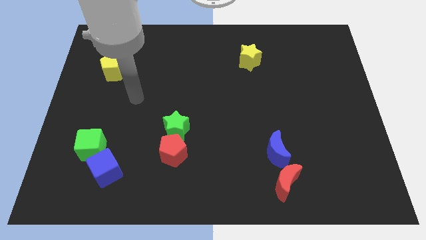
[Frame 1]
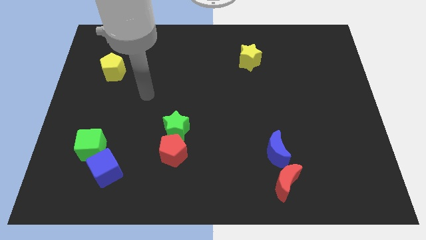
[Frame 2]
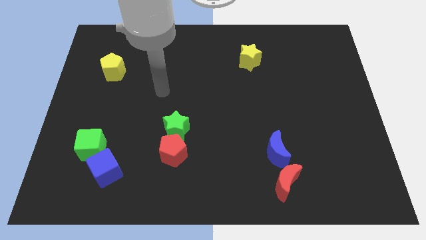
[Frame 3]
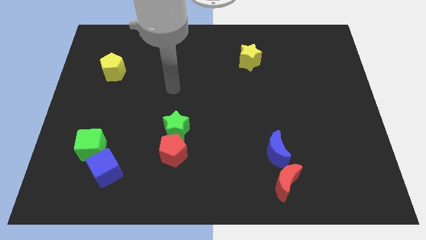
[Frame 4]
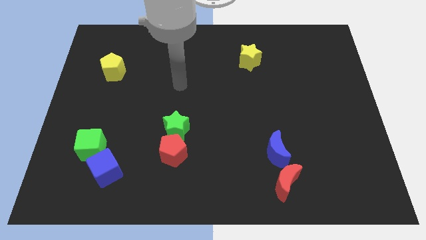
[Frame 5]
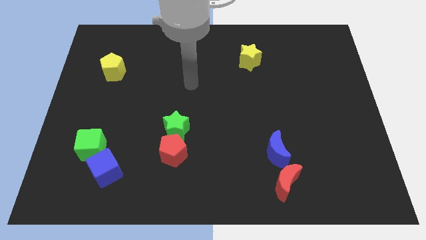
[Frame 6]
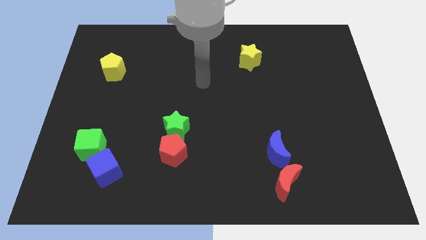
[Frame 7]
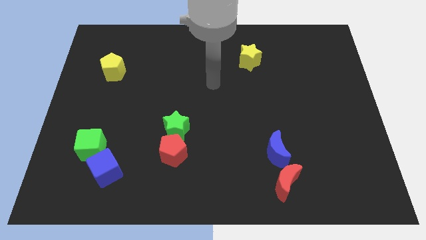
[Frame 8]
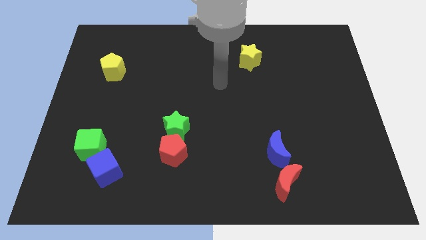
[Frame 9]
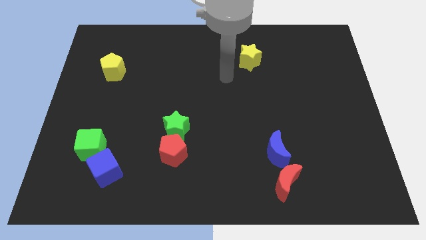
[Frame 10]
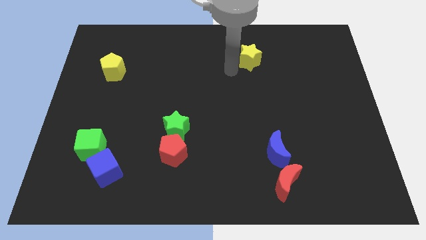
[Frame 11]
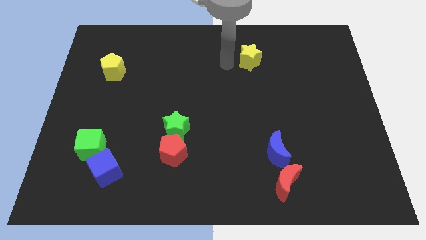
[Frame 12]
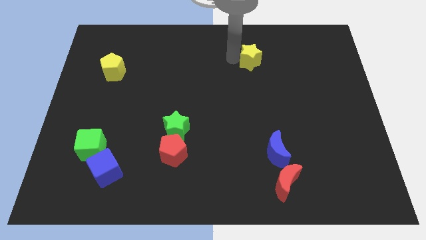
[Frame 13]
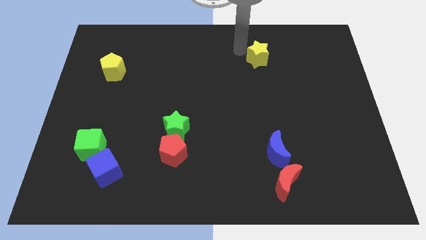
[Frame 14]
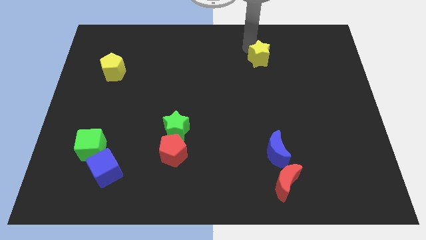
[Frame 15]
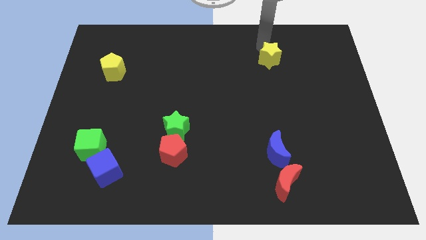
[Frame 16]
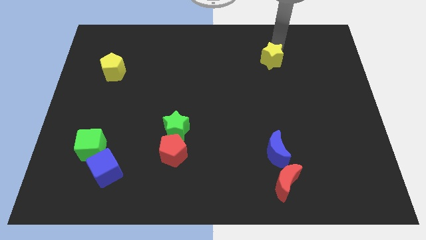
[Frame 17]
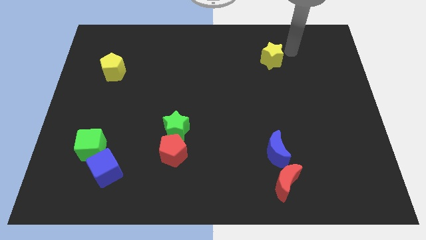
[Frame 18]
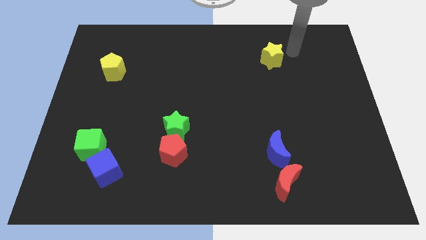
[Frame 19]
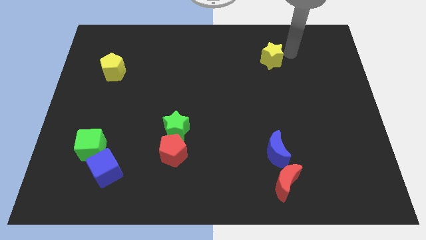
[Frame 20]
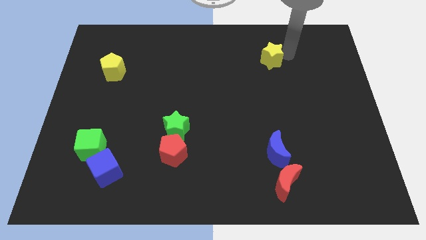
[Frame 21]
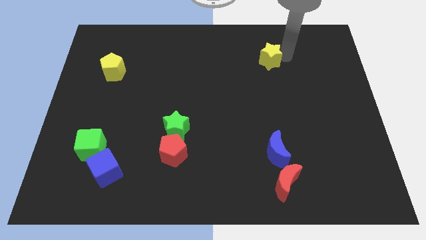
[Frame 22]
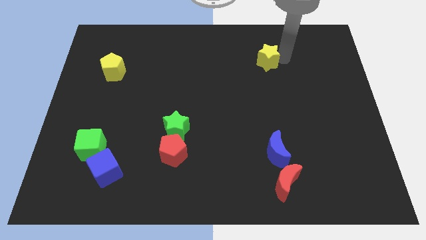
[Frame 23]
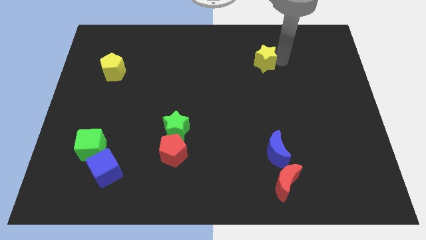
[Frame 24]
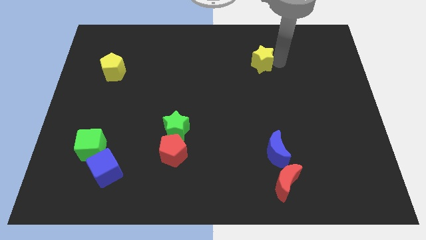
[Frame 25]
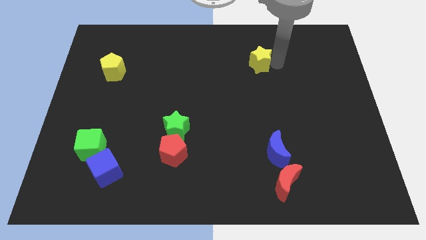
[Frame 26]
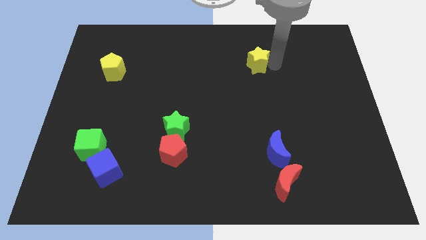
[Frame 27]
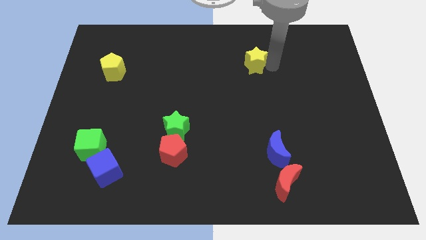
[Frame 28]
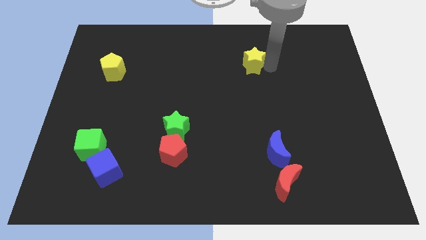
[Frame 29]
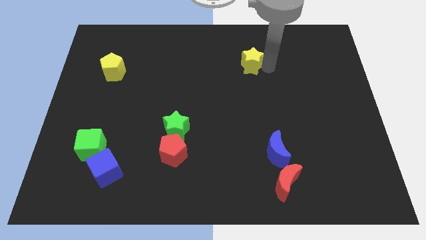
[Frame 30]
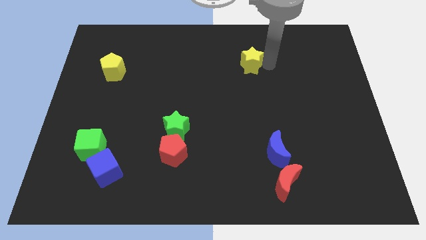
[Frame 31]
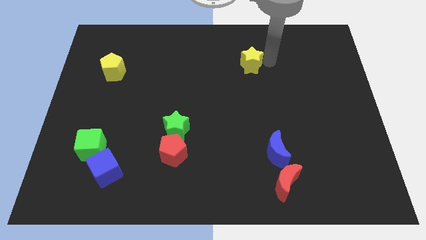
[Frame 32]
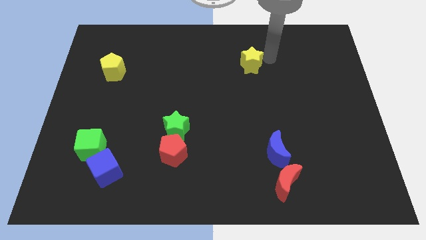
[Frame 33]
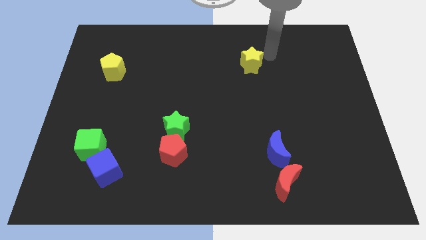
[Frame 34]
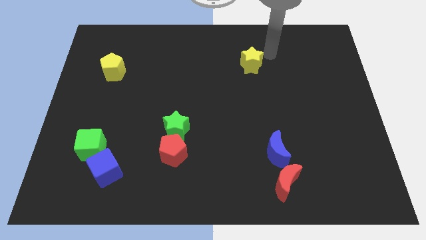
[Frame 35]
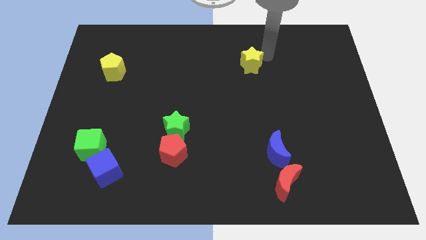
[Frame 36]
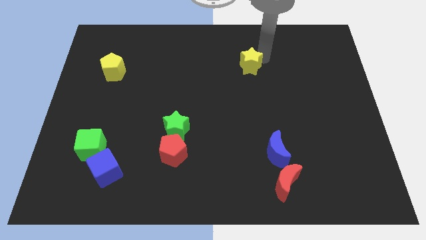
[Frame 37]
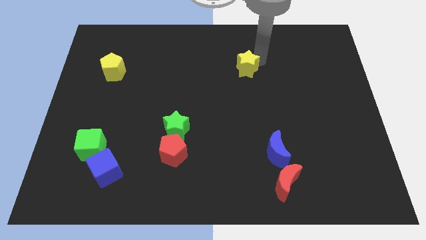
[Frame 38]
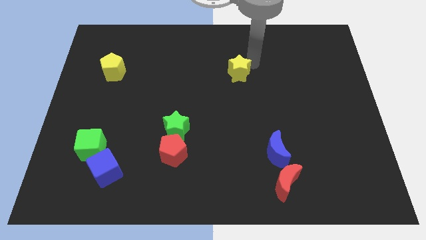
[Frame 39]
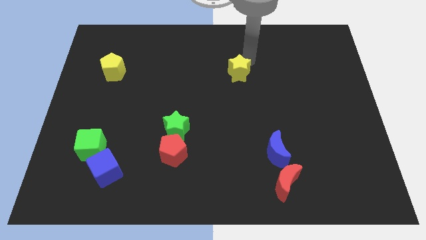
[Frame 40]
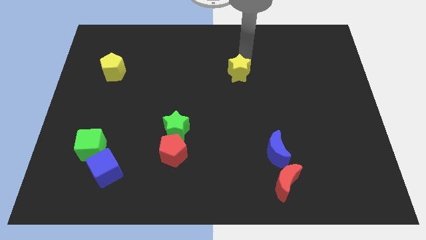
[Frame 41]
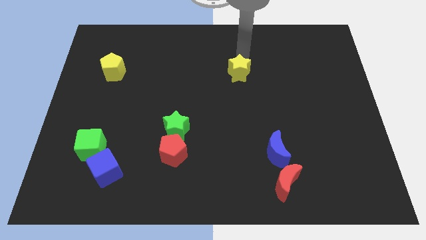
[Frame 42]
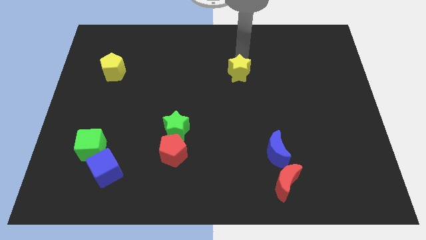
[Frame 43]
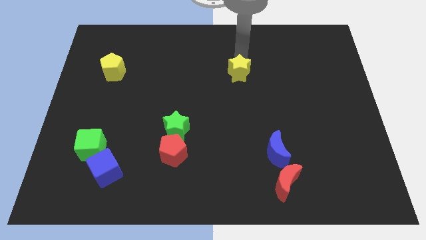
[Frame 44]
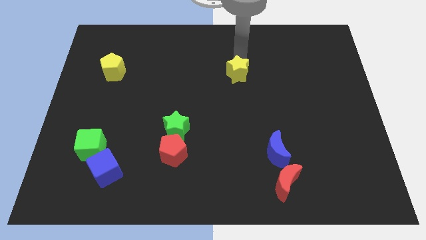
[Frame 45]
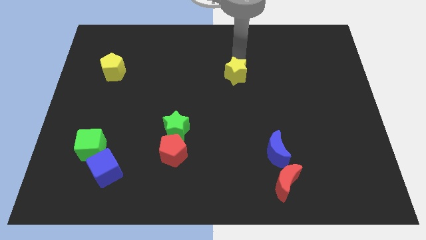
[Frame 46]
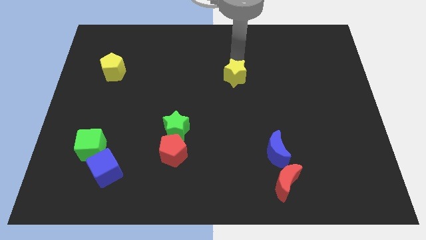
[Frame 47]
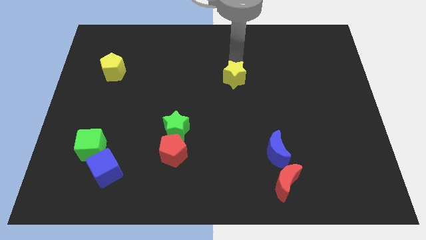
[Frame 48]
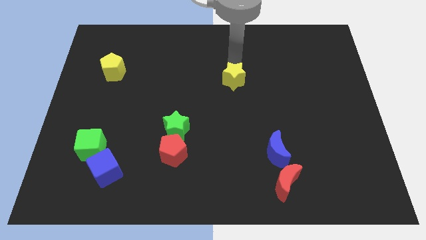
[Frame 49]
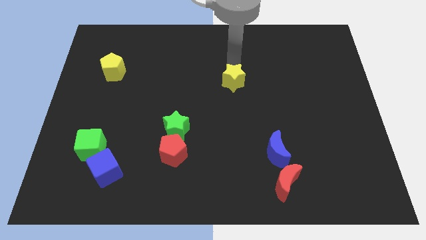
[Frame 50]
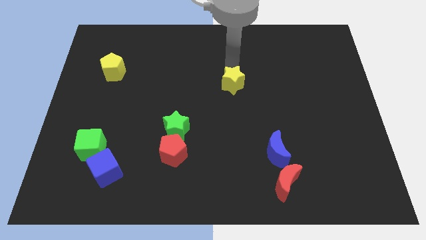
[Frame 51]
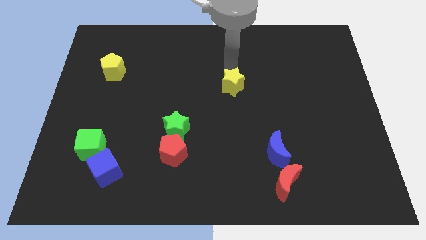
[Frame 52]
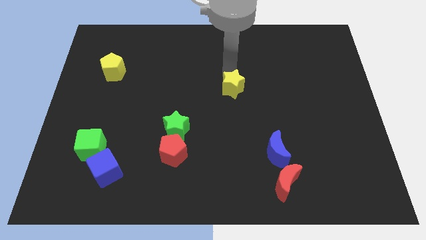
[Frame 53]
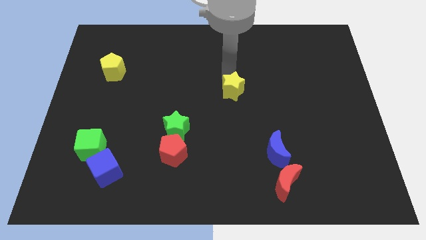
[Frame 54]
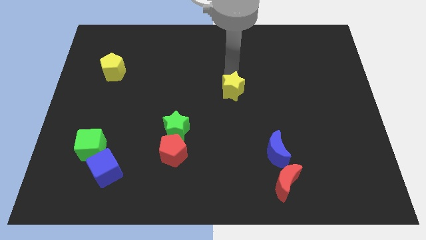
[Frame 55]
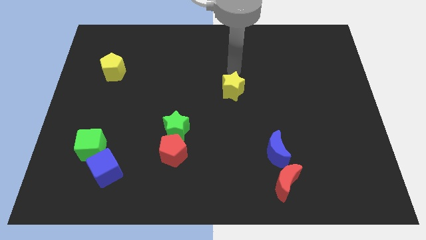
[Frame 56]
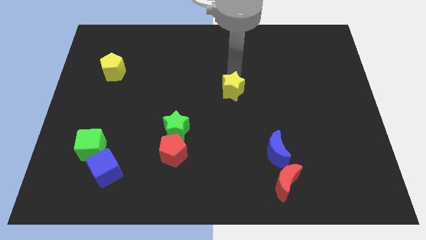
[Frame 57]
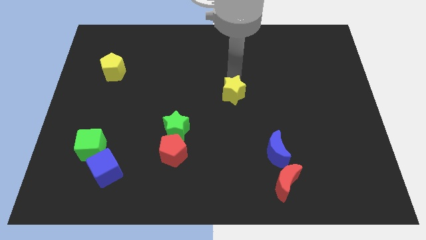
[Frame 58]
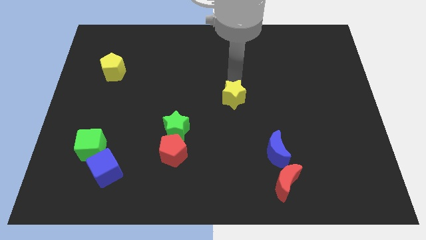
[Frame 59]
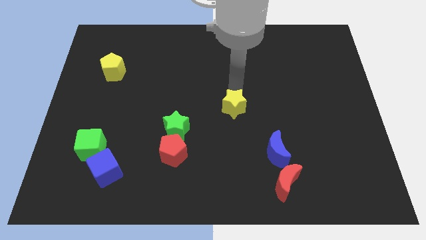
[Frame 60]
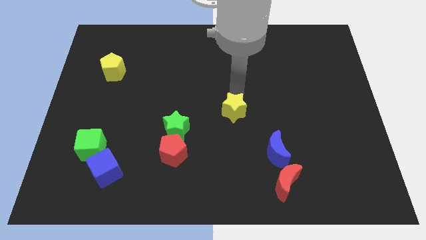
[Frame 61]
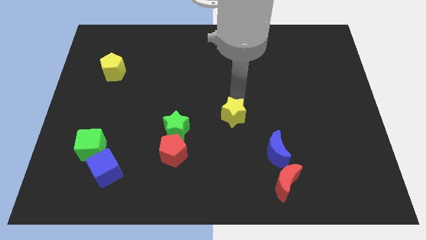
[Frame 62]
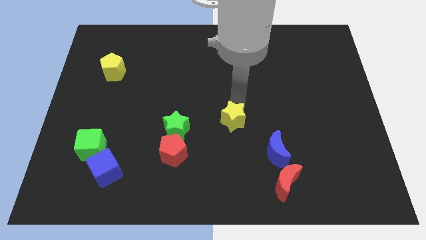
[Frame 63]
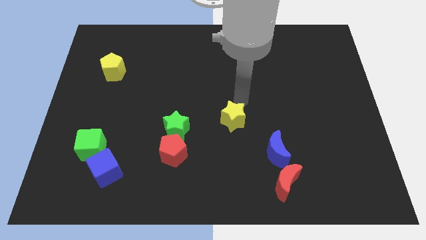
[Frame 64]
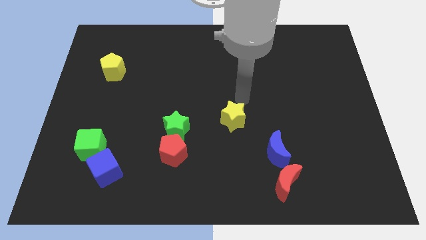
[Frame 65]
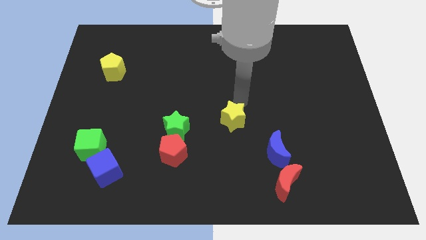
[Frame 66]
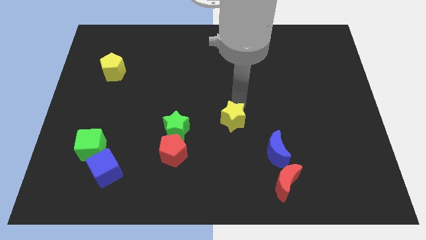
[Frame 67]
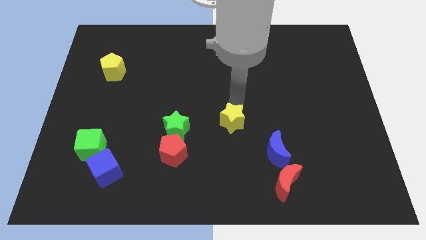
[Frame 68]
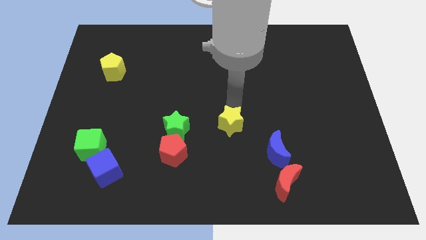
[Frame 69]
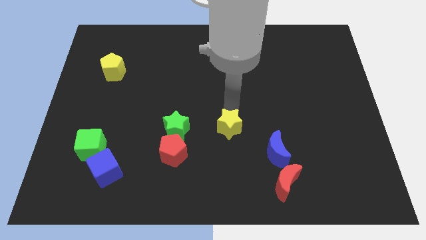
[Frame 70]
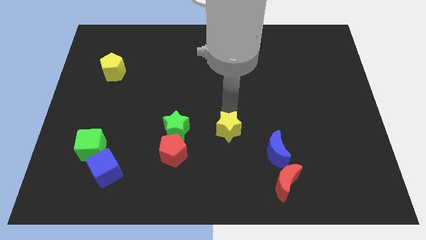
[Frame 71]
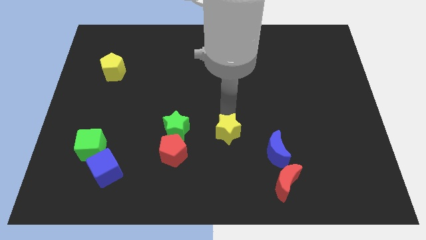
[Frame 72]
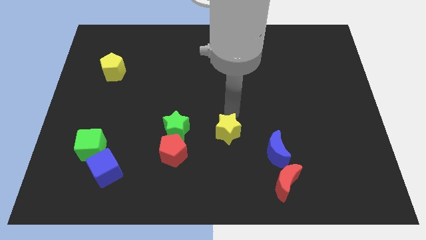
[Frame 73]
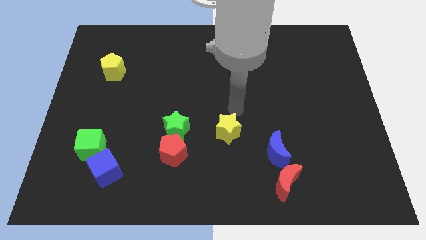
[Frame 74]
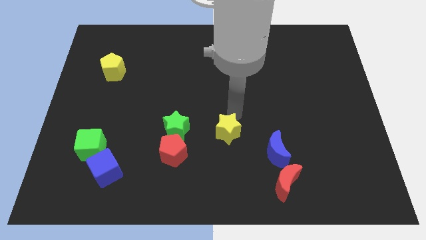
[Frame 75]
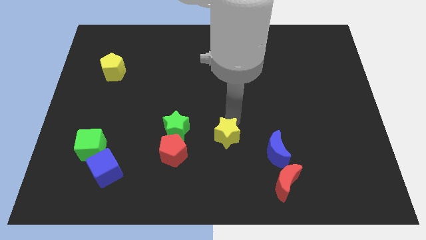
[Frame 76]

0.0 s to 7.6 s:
put the yellow star right of the red pentagon
